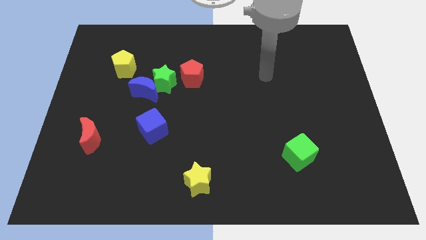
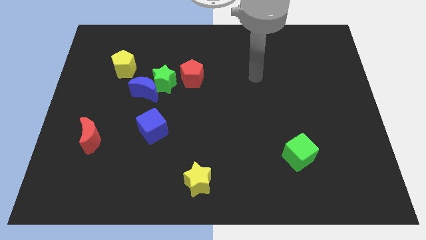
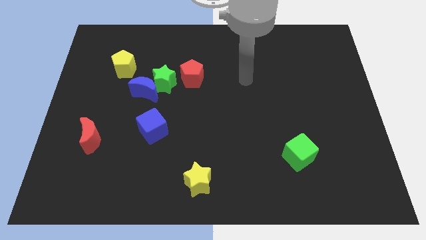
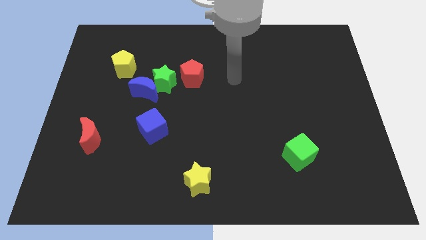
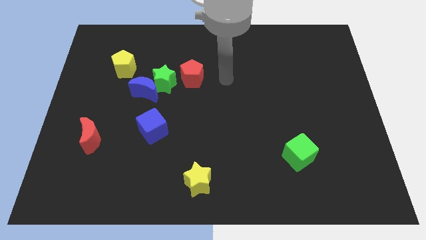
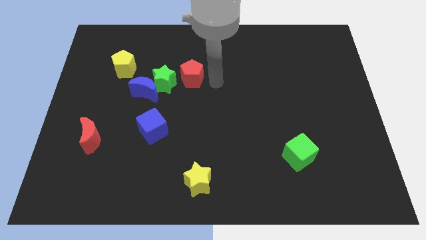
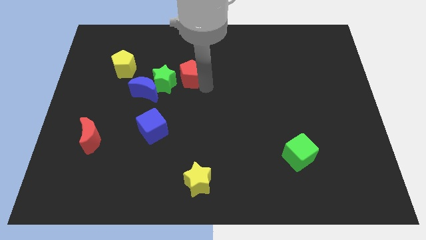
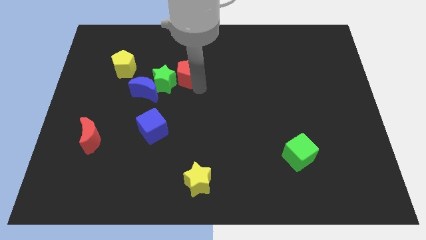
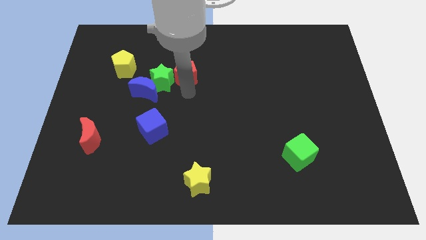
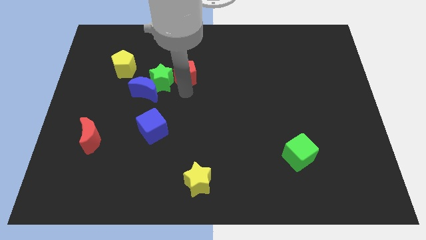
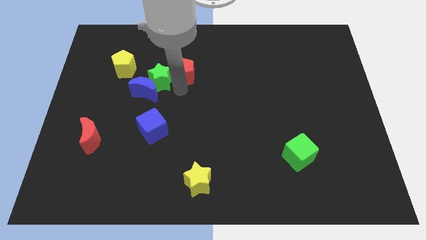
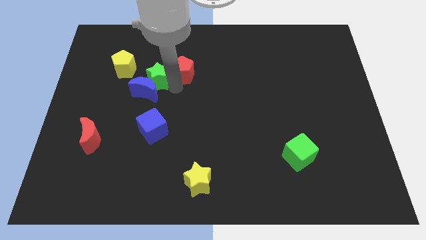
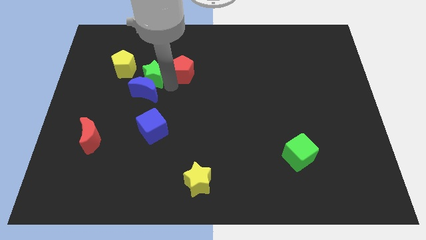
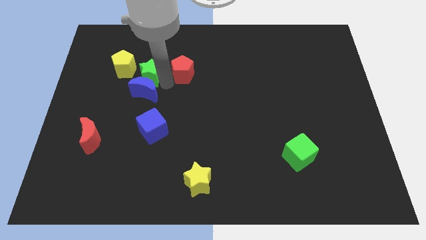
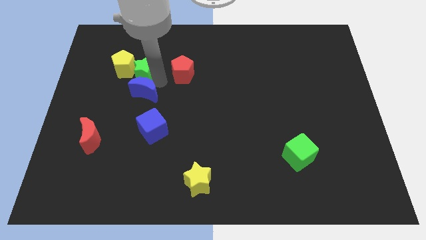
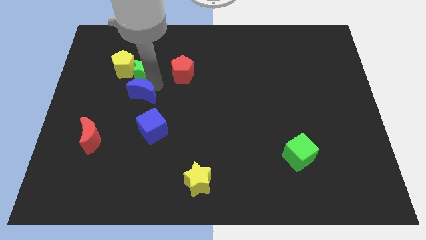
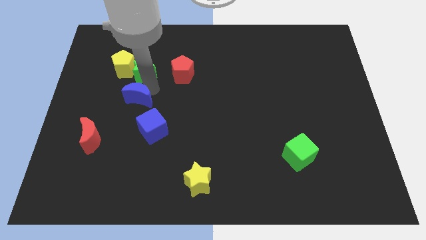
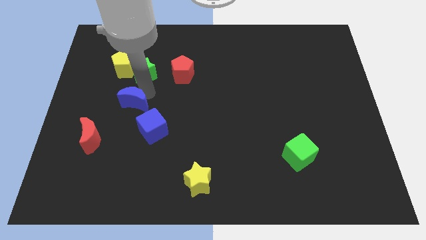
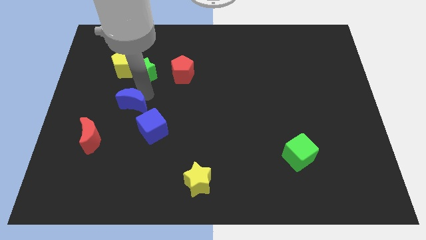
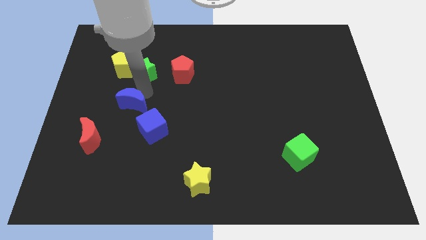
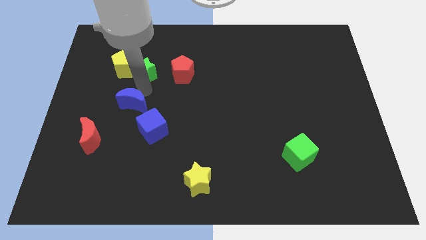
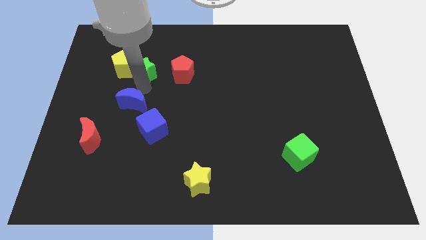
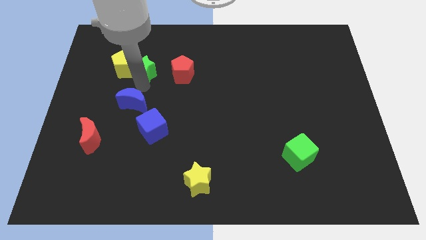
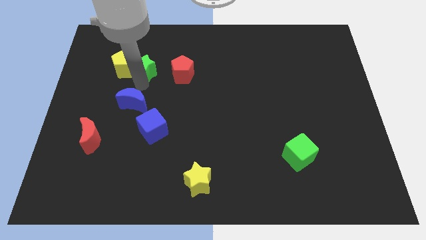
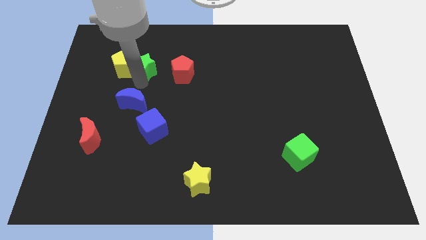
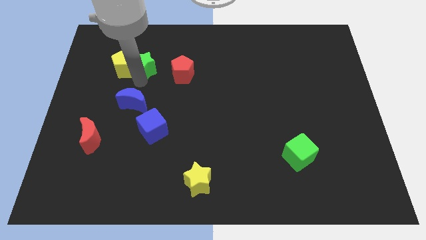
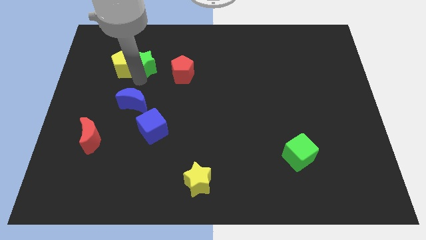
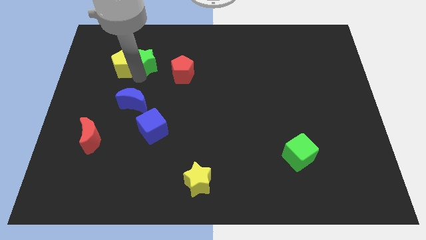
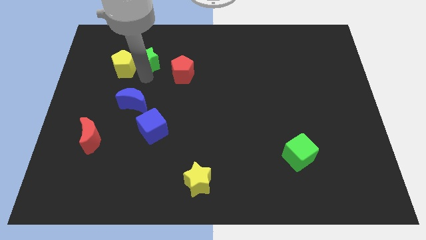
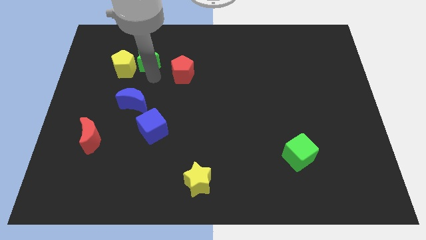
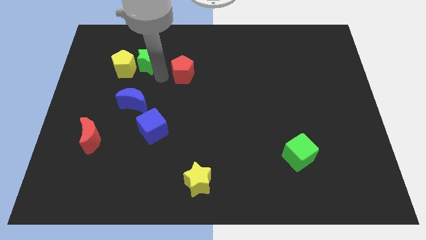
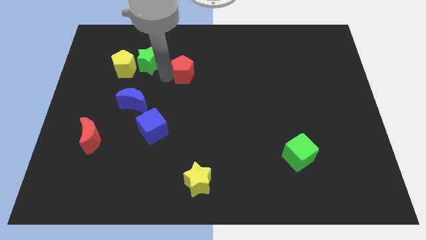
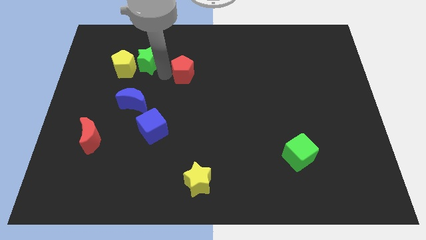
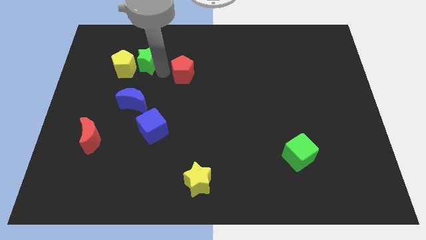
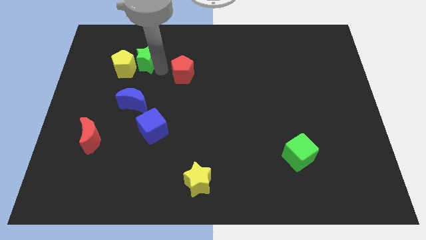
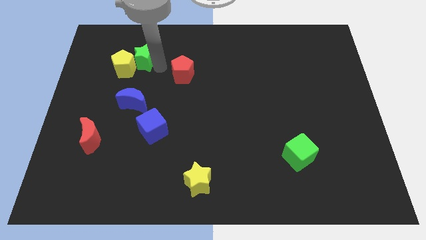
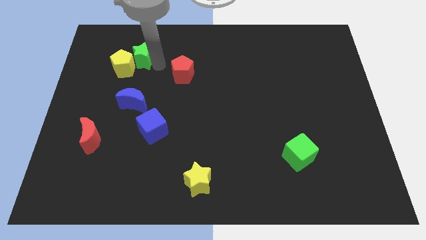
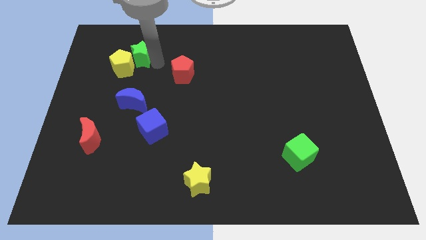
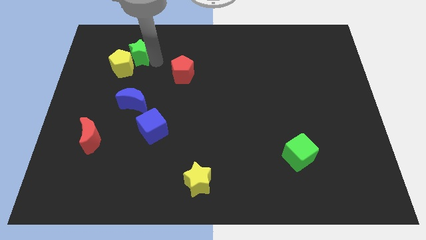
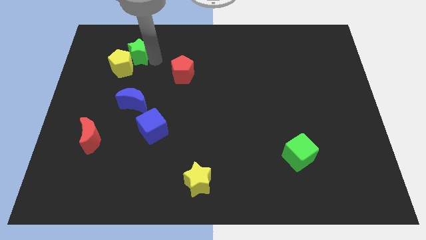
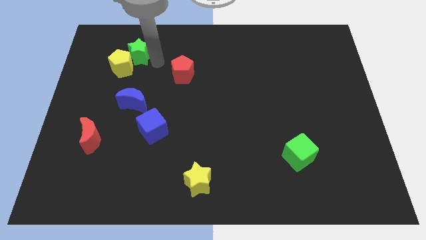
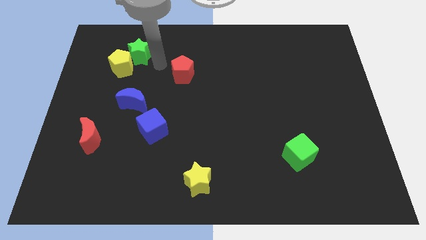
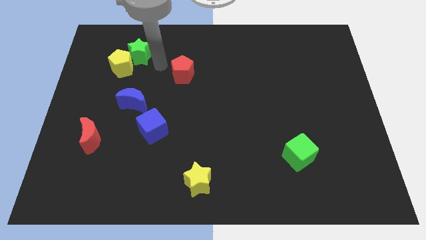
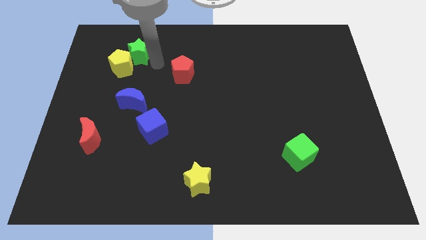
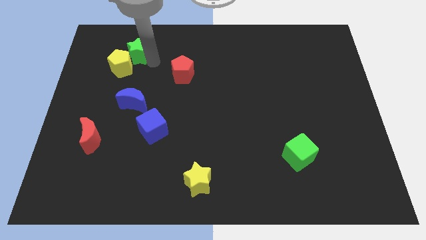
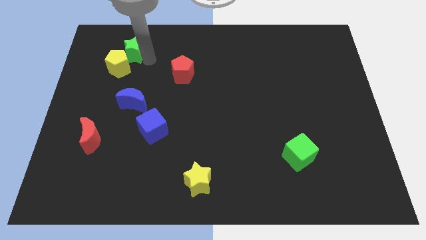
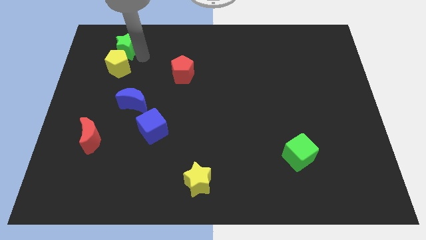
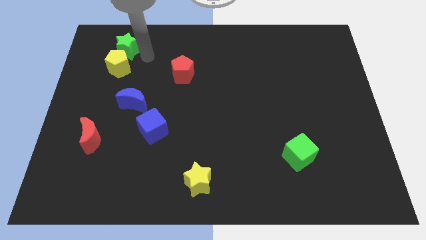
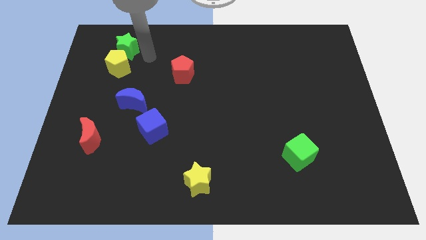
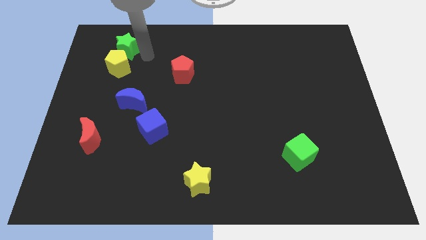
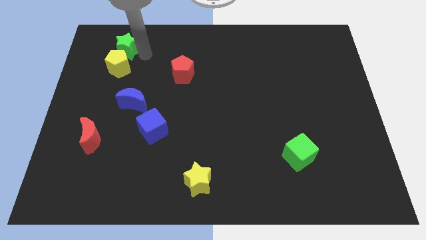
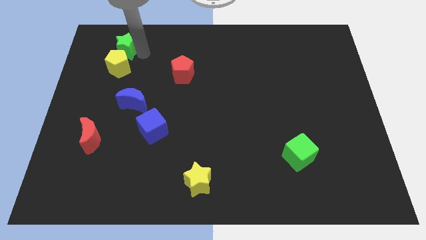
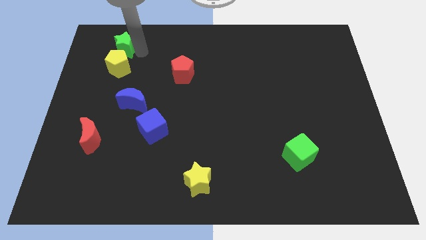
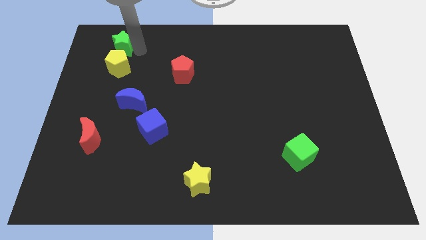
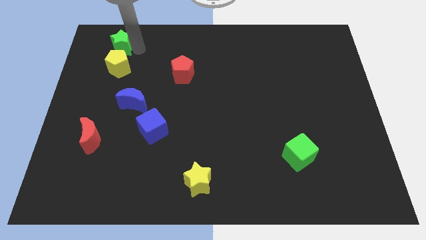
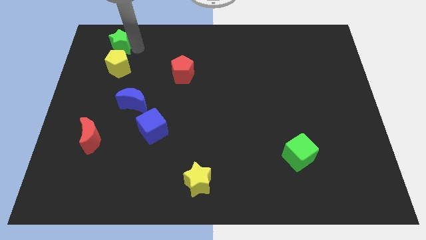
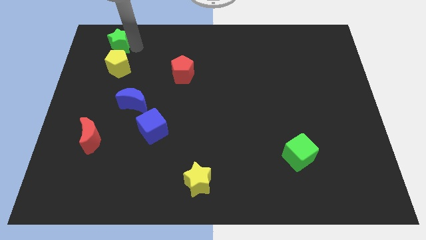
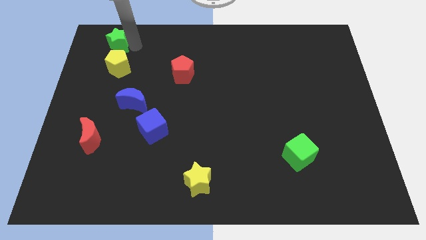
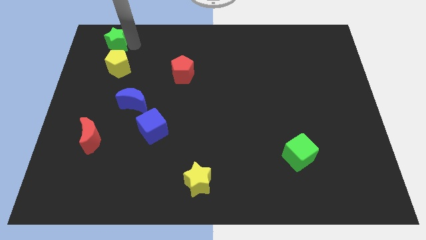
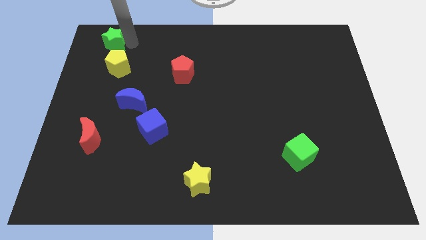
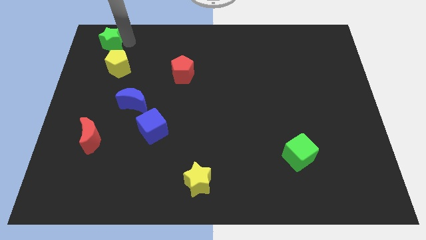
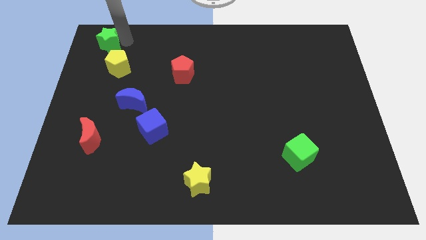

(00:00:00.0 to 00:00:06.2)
put the green star to the upper left corner

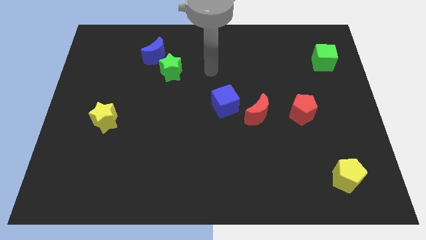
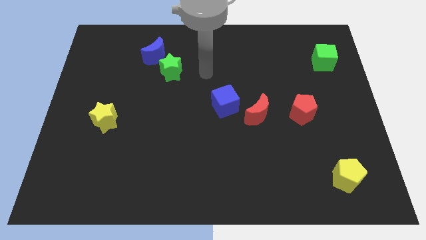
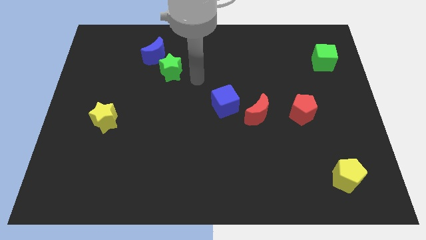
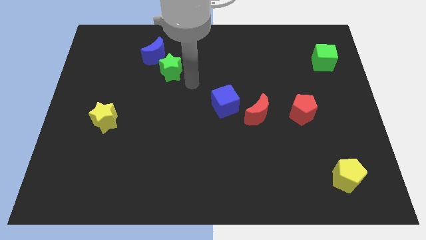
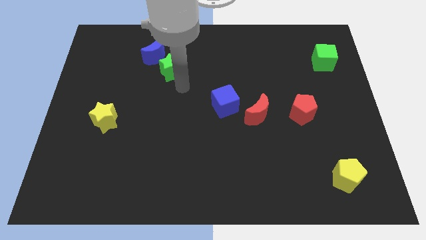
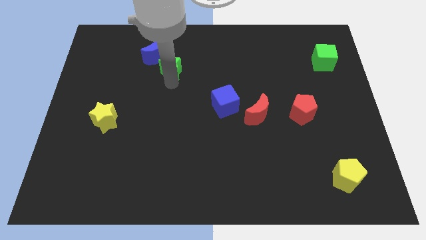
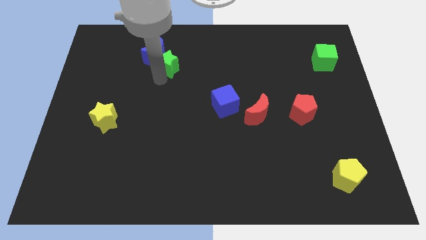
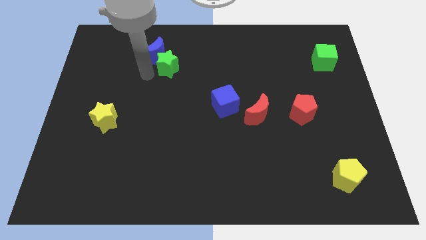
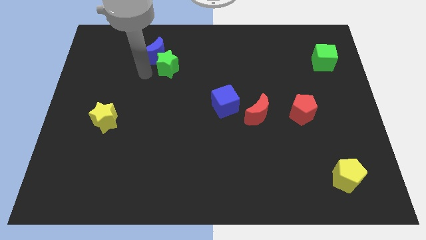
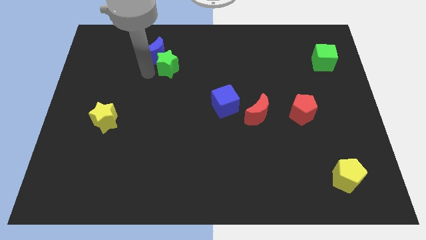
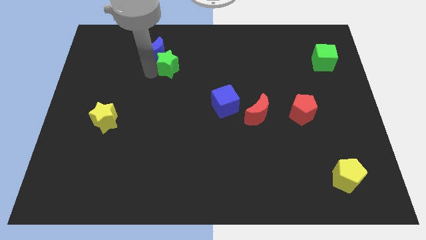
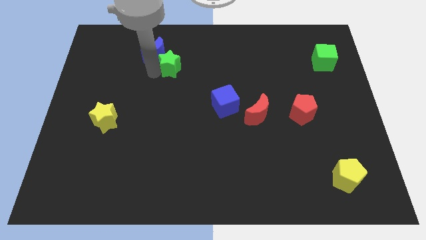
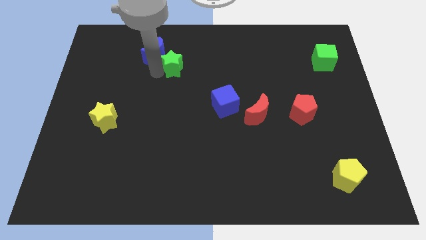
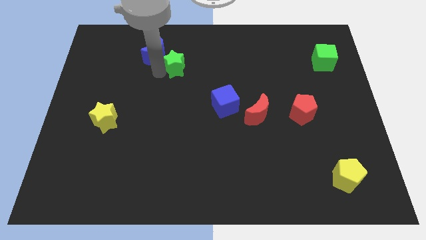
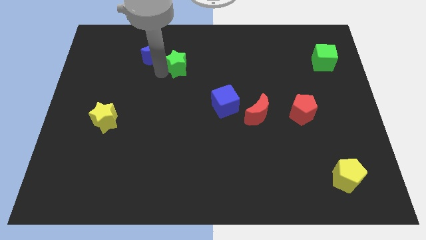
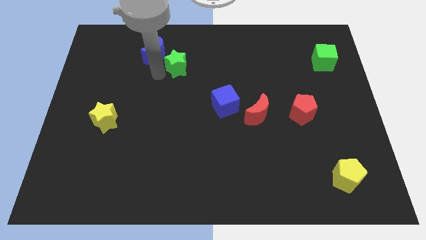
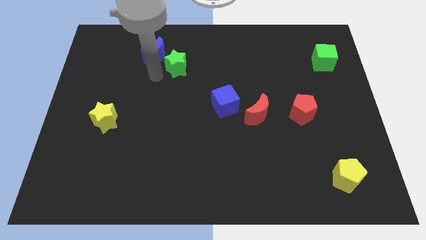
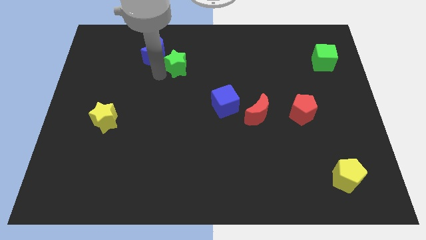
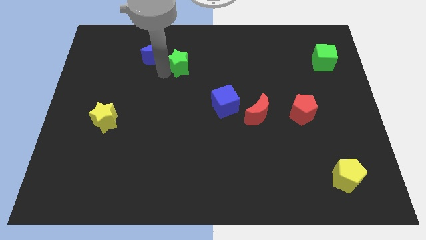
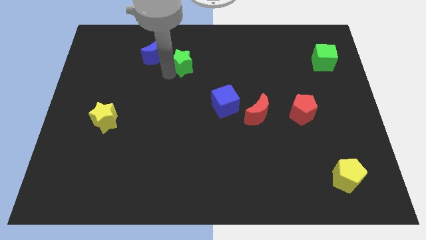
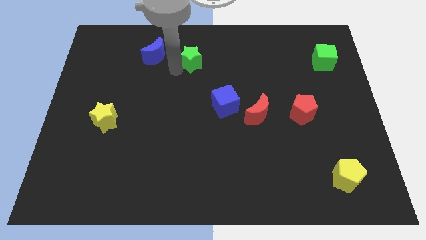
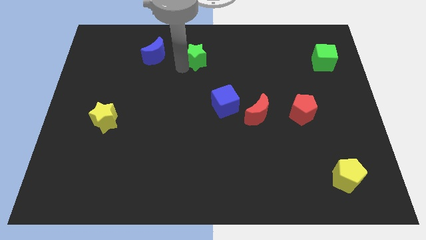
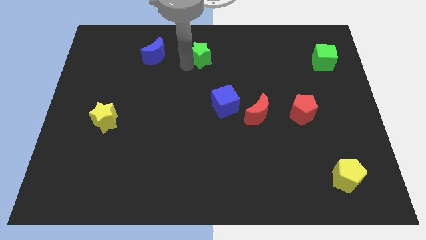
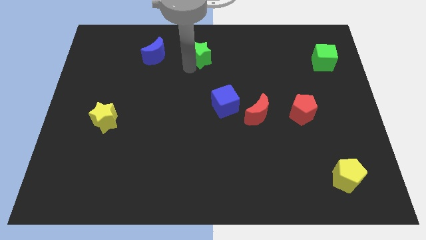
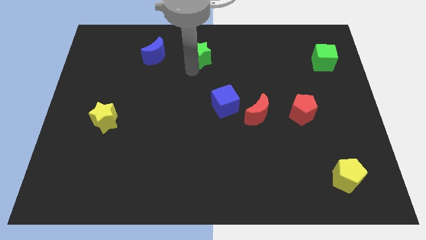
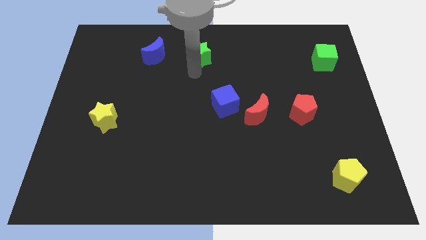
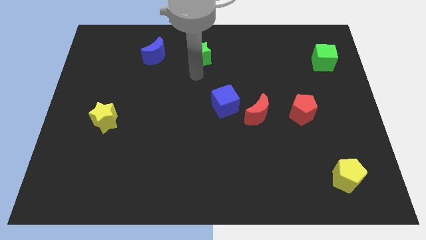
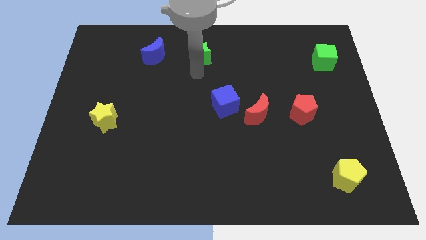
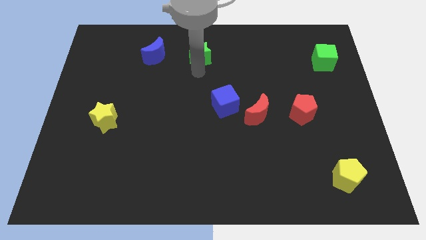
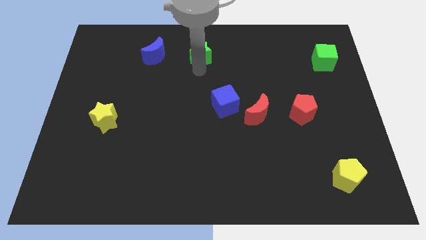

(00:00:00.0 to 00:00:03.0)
put the green star to the top
